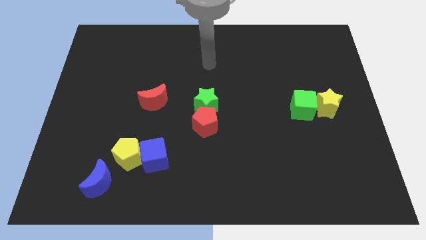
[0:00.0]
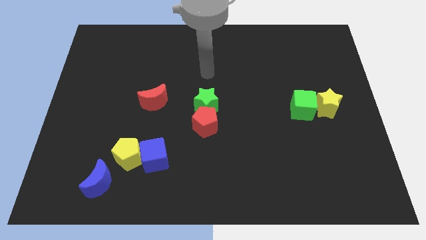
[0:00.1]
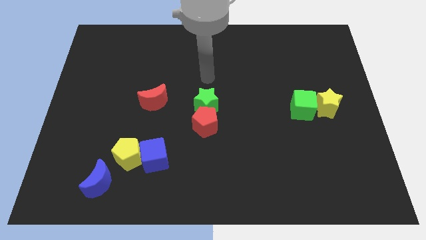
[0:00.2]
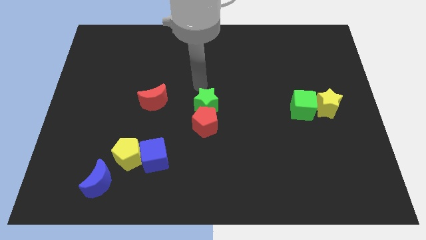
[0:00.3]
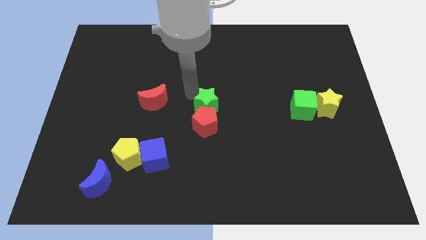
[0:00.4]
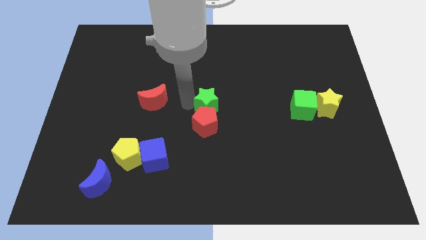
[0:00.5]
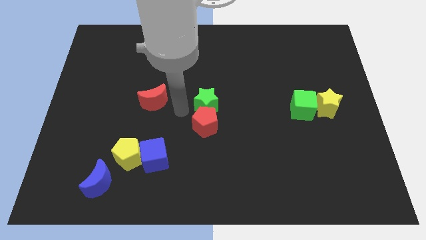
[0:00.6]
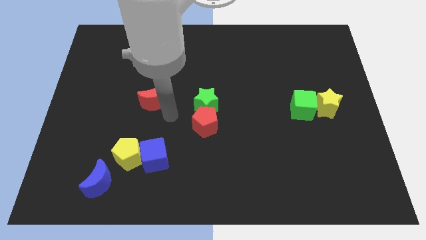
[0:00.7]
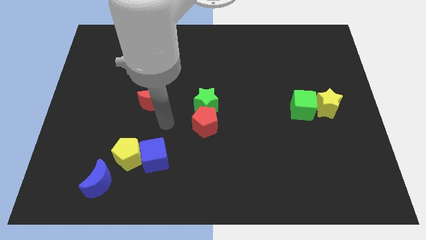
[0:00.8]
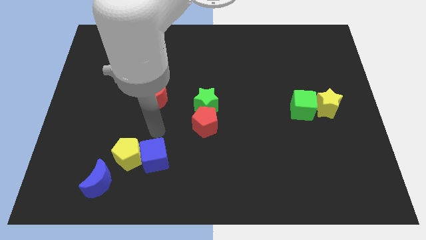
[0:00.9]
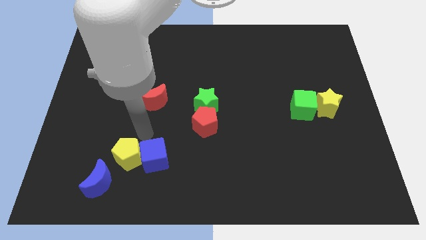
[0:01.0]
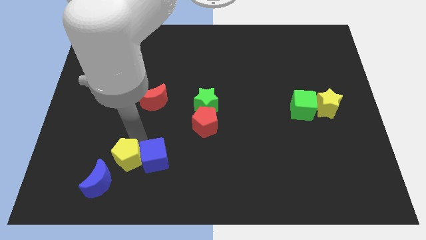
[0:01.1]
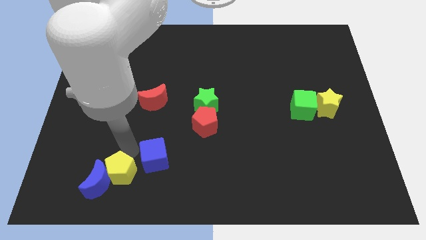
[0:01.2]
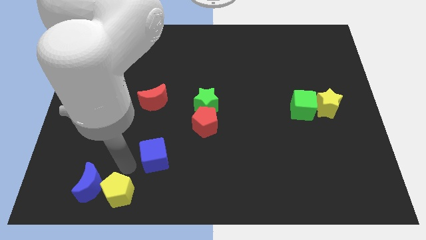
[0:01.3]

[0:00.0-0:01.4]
pull the blue cube apart from the yellow pentagon

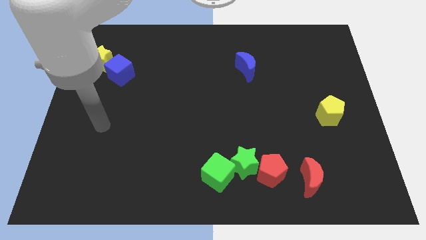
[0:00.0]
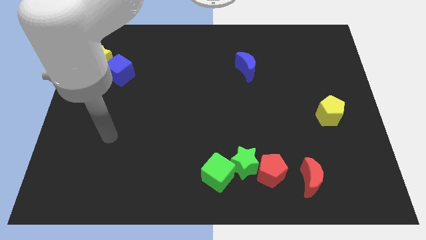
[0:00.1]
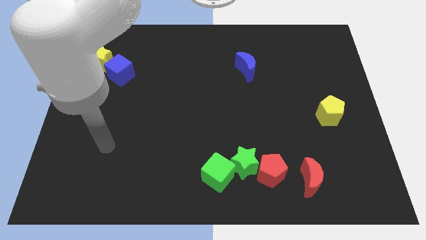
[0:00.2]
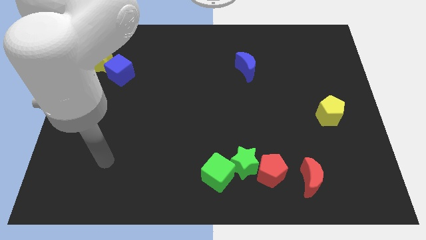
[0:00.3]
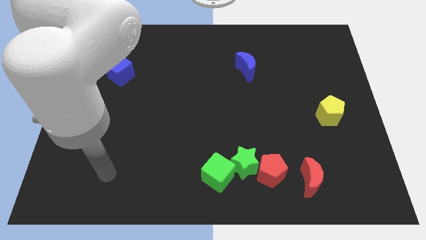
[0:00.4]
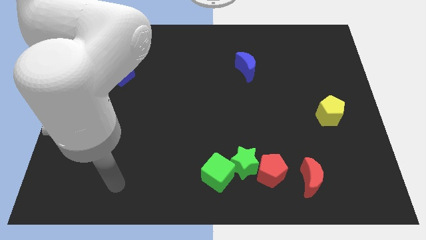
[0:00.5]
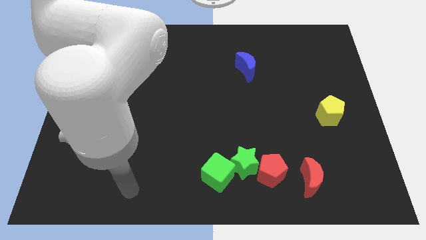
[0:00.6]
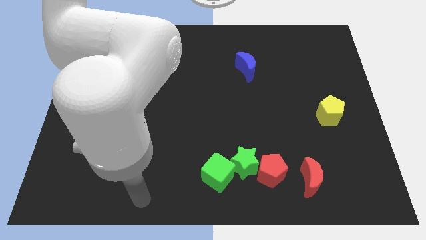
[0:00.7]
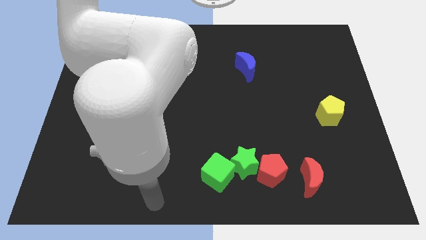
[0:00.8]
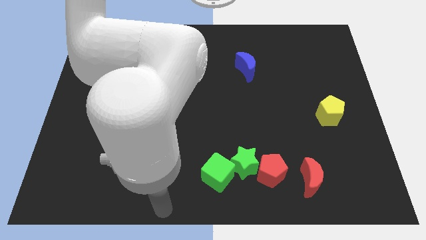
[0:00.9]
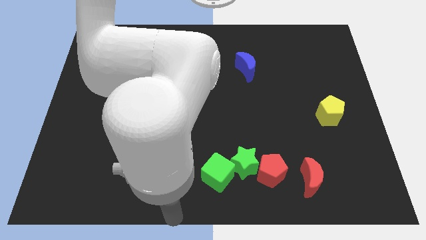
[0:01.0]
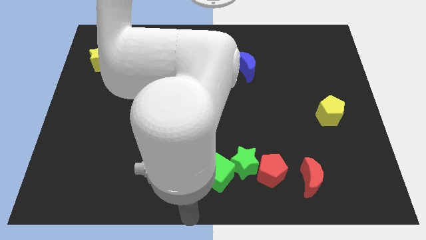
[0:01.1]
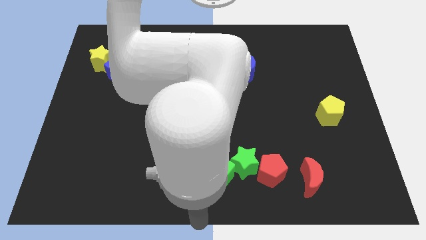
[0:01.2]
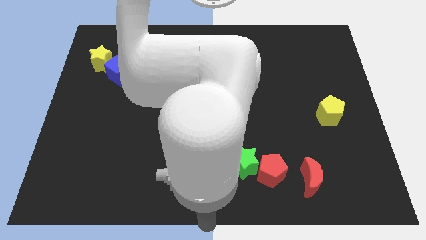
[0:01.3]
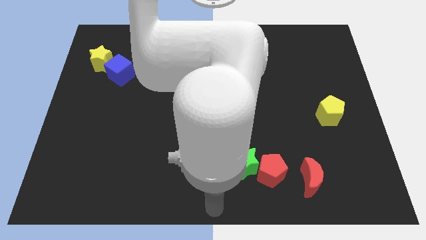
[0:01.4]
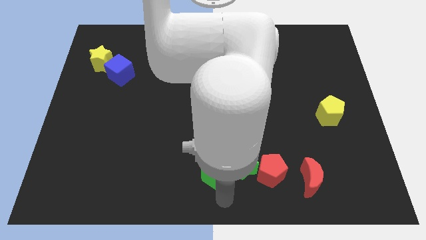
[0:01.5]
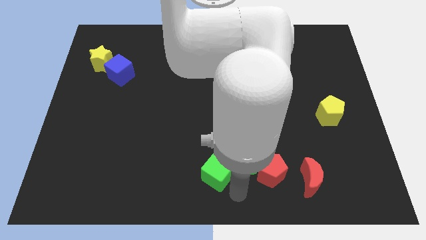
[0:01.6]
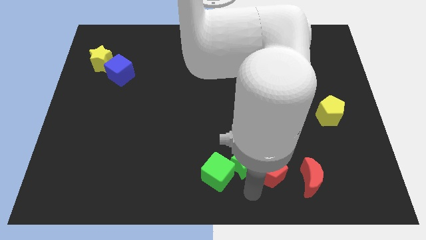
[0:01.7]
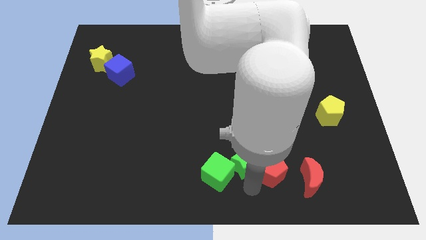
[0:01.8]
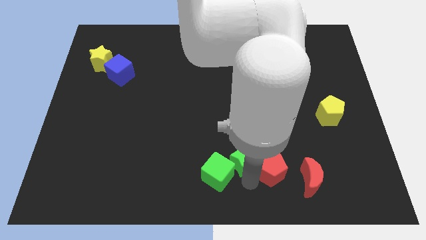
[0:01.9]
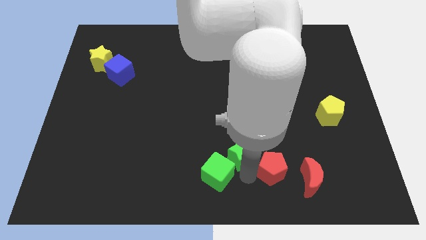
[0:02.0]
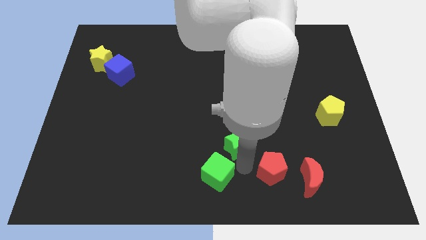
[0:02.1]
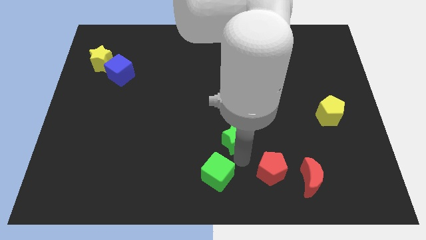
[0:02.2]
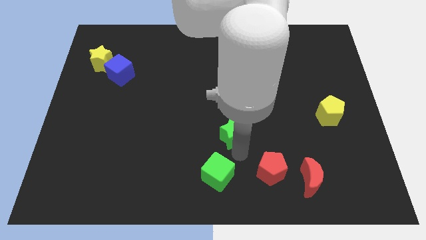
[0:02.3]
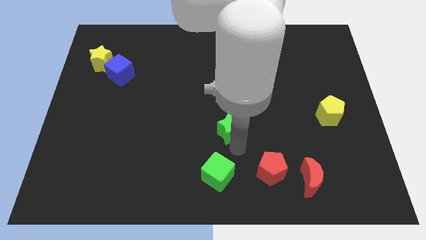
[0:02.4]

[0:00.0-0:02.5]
pull the green star apart from the red pentagon and green cube

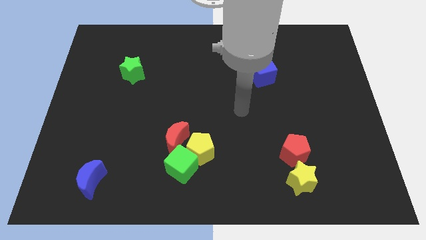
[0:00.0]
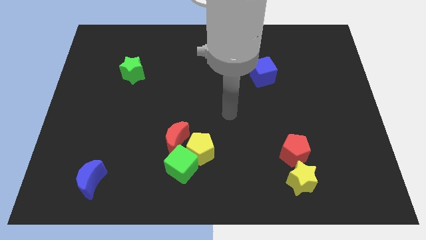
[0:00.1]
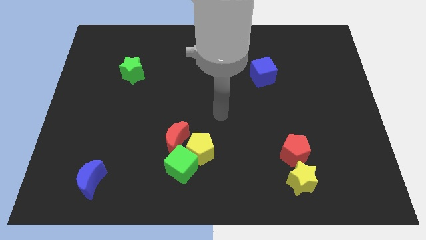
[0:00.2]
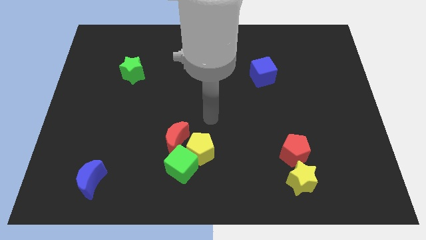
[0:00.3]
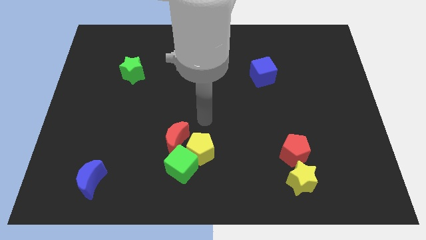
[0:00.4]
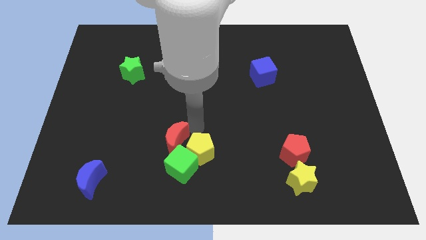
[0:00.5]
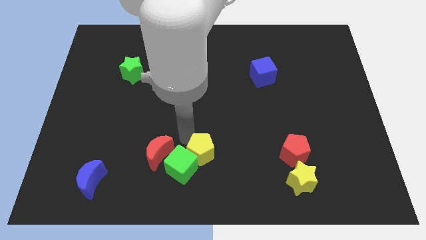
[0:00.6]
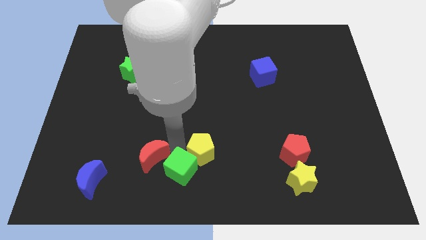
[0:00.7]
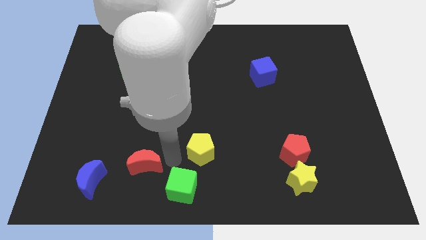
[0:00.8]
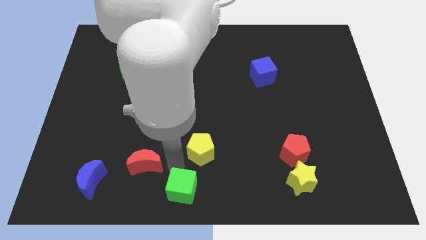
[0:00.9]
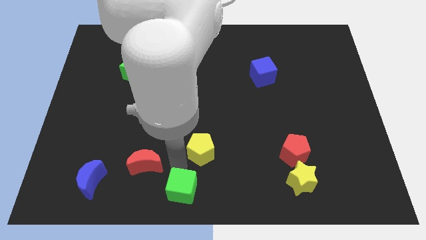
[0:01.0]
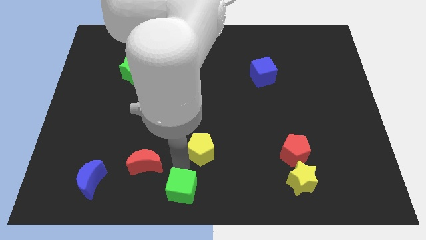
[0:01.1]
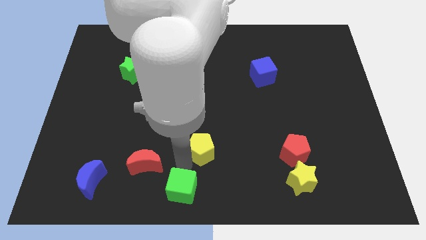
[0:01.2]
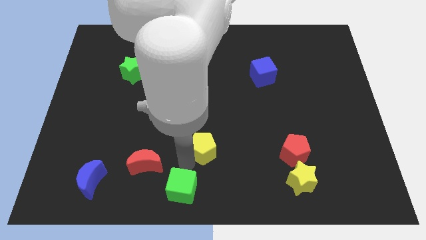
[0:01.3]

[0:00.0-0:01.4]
pull the yellow pentagon apart from the green cube and red moon

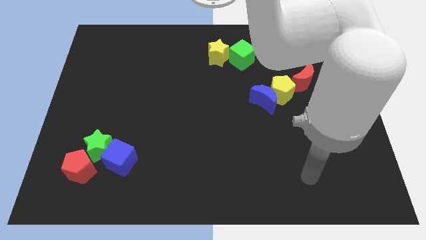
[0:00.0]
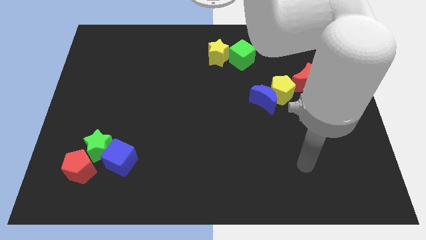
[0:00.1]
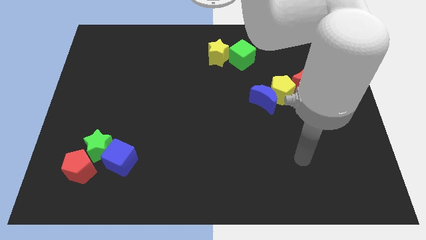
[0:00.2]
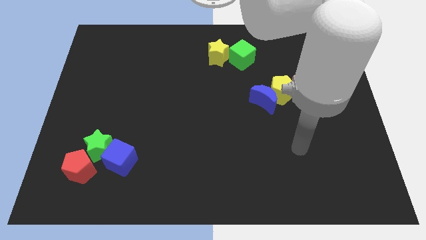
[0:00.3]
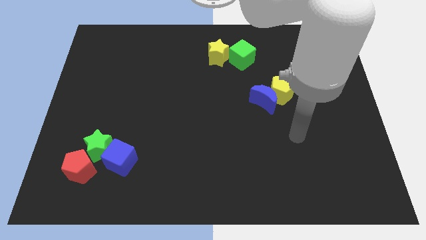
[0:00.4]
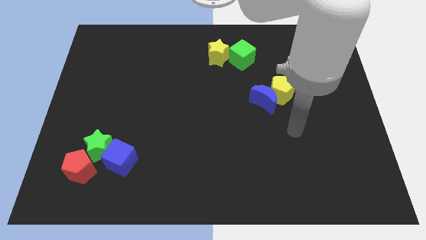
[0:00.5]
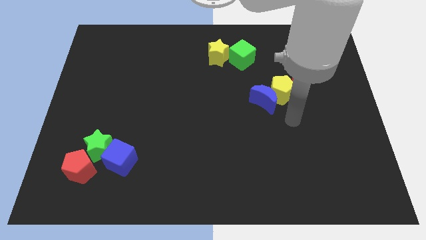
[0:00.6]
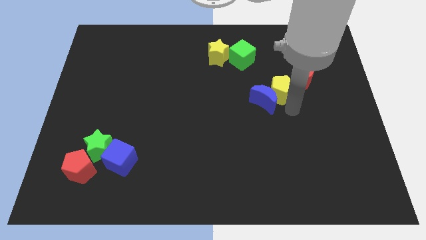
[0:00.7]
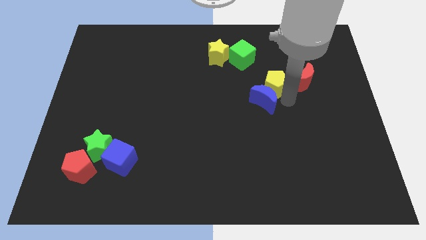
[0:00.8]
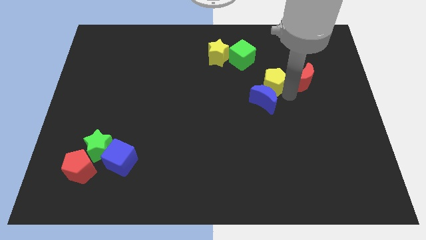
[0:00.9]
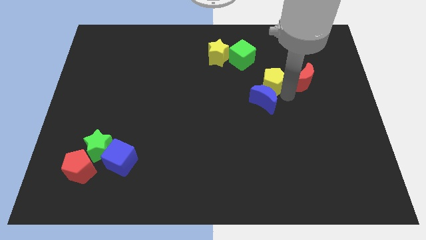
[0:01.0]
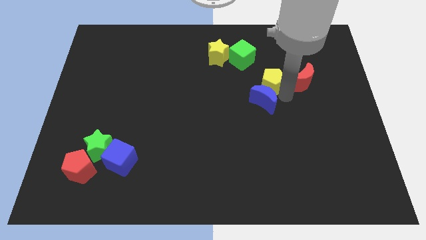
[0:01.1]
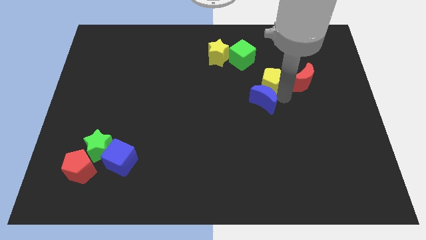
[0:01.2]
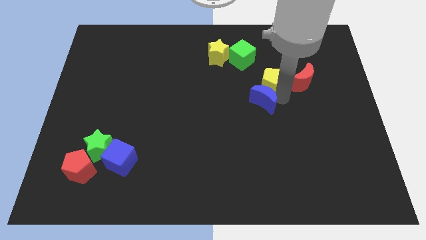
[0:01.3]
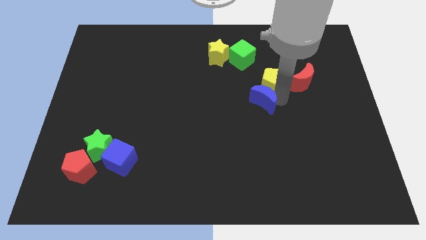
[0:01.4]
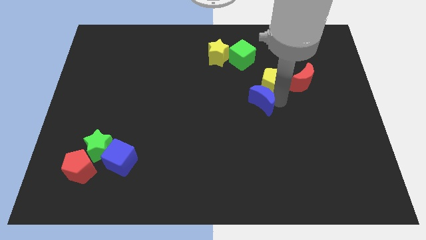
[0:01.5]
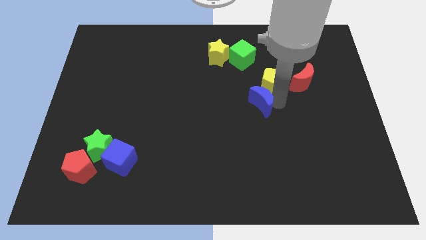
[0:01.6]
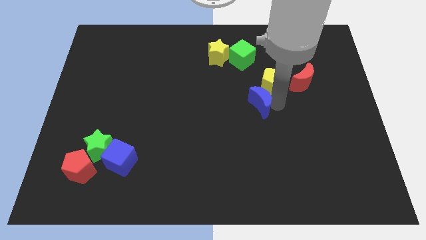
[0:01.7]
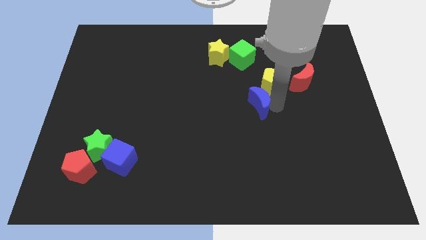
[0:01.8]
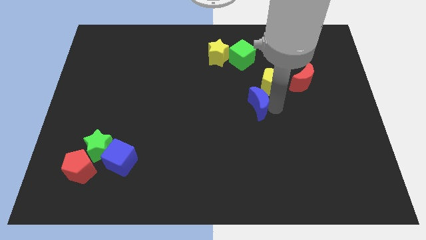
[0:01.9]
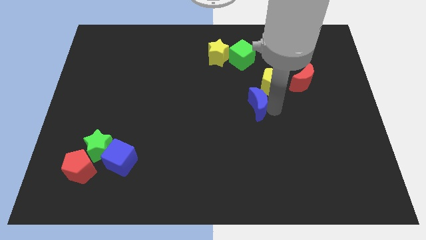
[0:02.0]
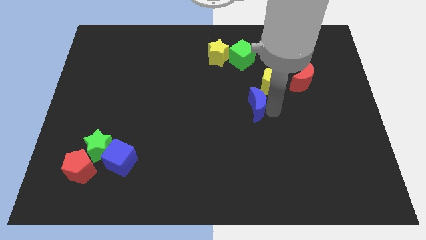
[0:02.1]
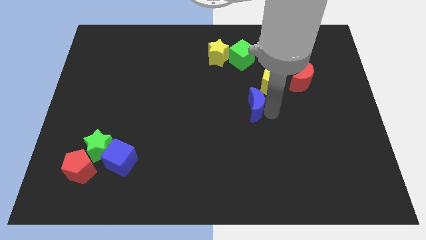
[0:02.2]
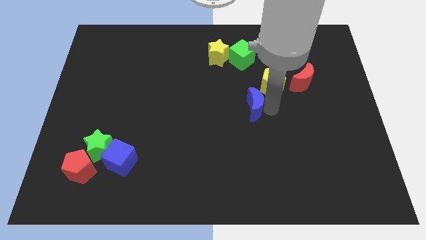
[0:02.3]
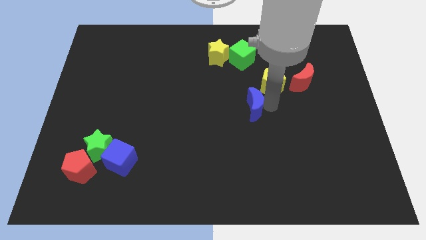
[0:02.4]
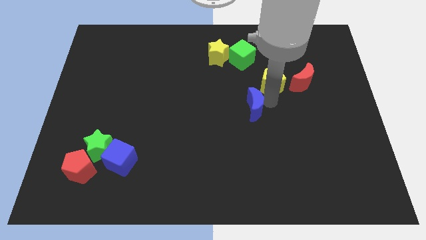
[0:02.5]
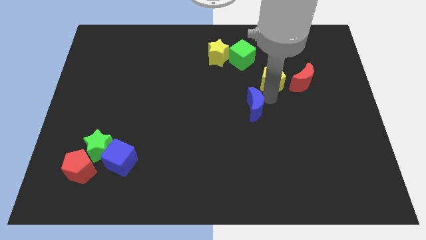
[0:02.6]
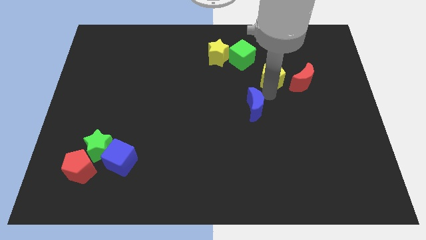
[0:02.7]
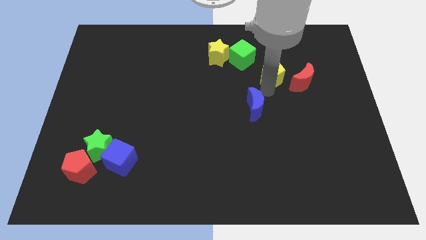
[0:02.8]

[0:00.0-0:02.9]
separate the blue moon from the yellow pentagon

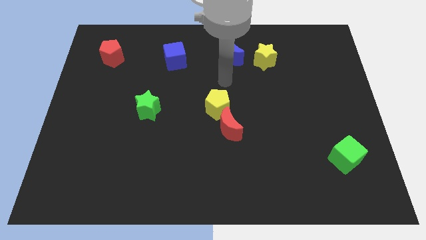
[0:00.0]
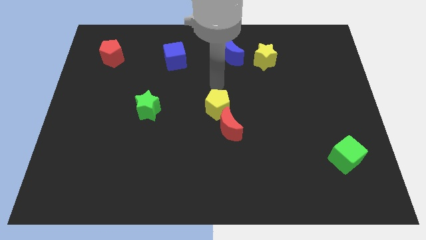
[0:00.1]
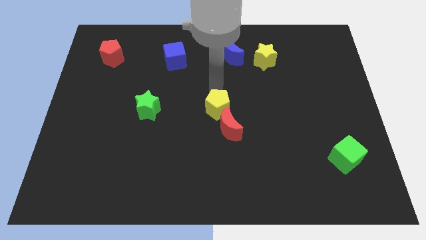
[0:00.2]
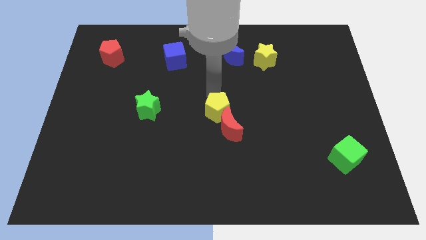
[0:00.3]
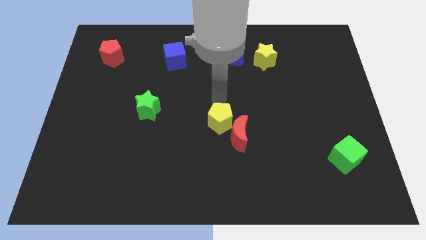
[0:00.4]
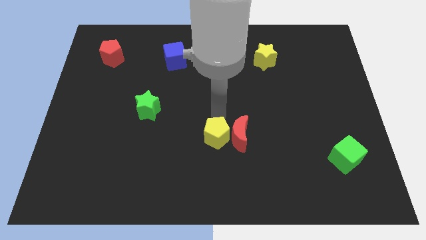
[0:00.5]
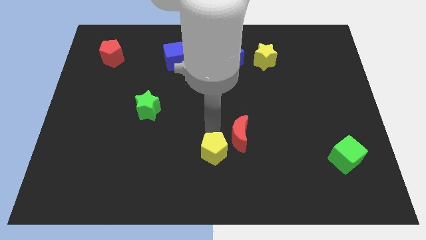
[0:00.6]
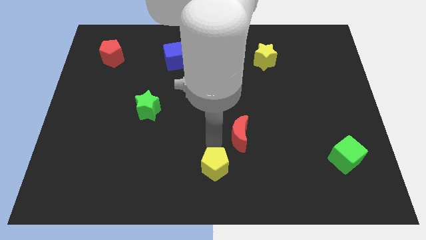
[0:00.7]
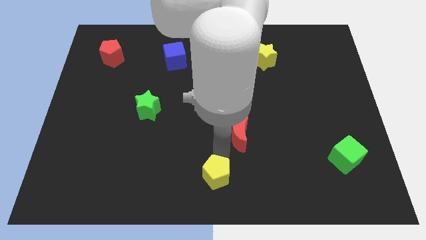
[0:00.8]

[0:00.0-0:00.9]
move the red moon away from the yellow pentagon

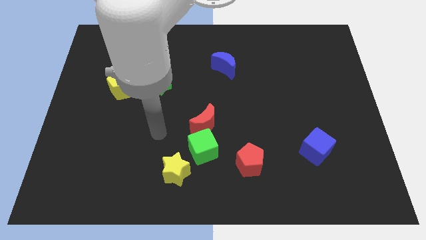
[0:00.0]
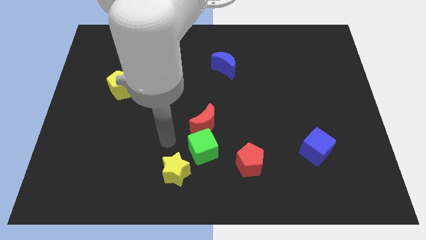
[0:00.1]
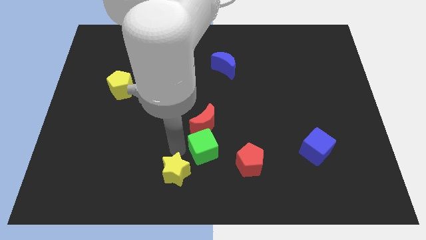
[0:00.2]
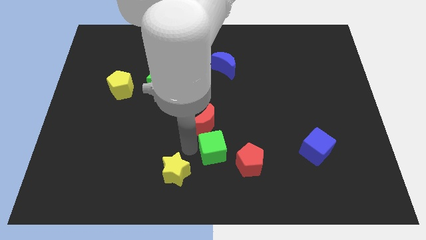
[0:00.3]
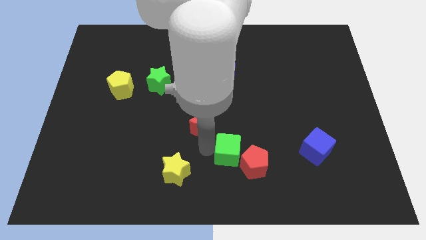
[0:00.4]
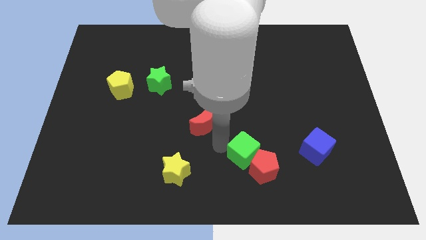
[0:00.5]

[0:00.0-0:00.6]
pull the red moon apart from the green cube
